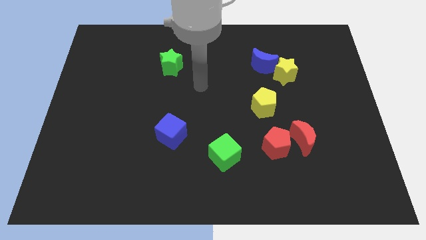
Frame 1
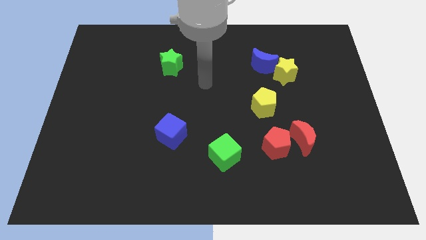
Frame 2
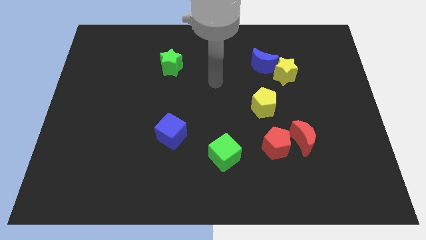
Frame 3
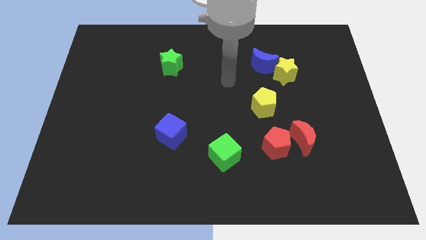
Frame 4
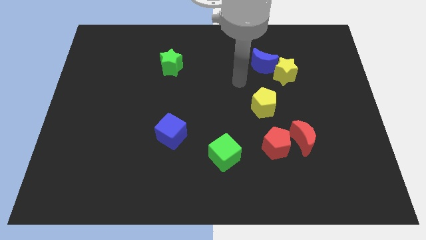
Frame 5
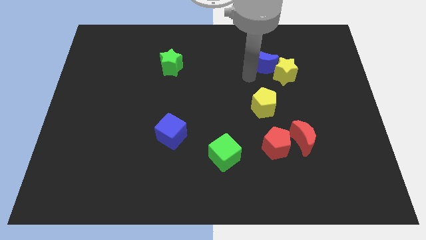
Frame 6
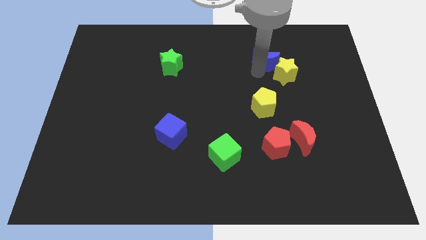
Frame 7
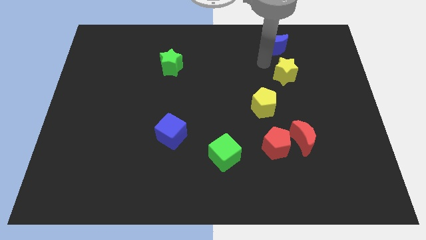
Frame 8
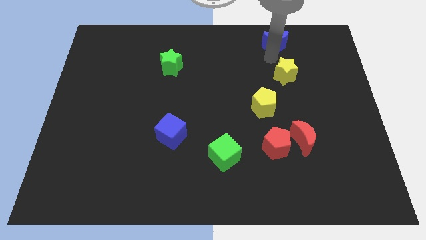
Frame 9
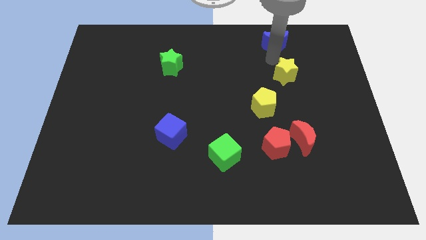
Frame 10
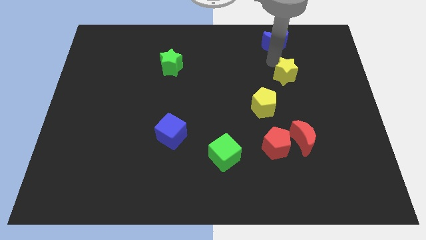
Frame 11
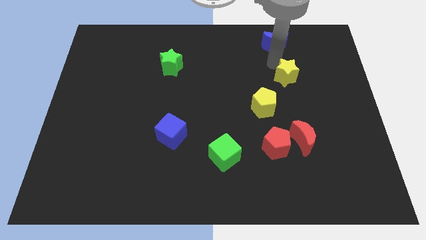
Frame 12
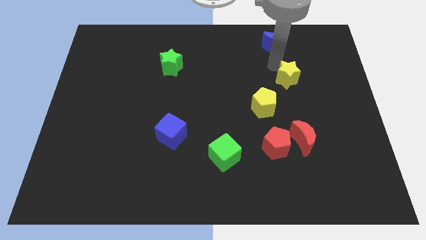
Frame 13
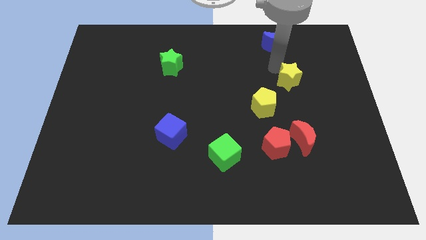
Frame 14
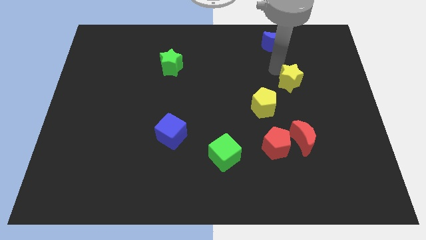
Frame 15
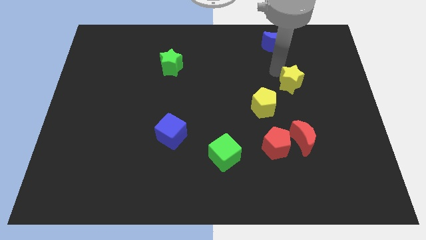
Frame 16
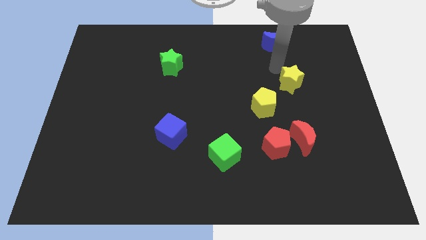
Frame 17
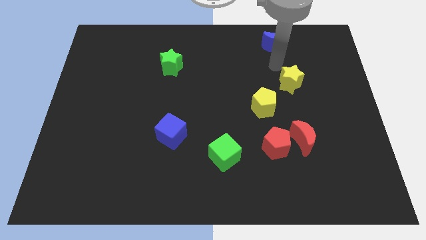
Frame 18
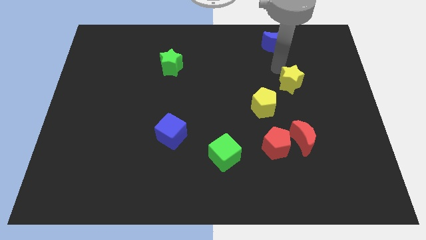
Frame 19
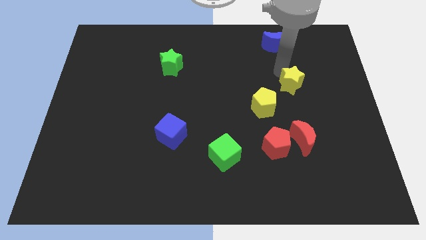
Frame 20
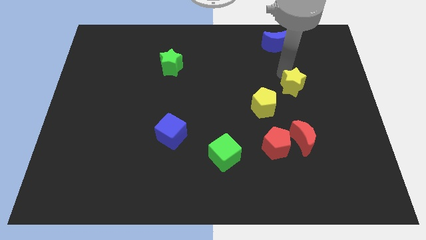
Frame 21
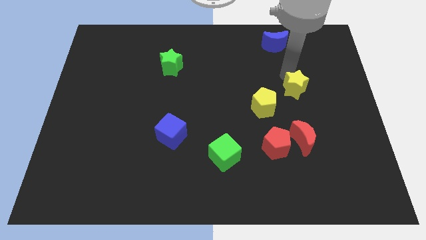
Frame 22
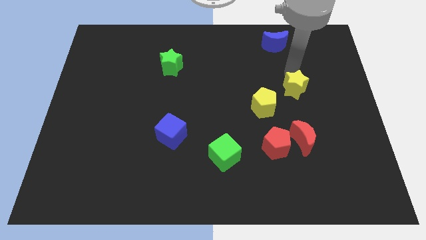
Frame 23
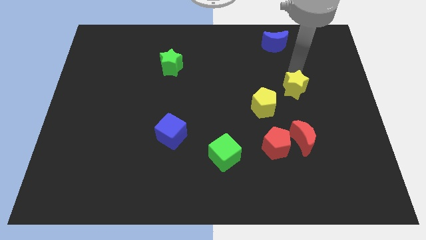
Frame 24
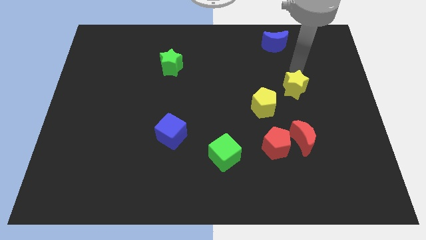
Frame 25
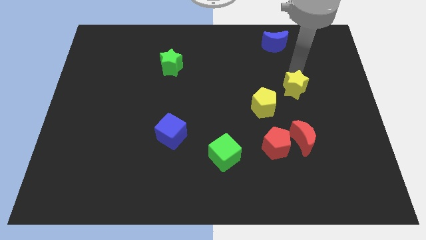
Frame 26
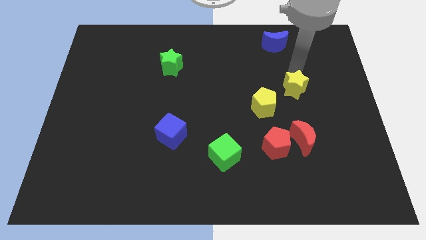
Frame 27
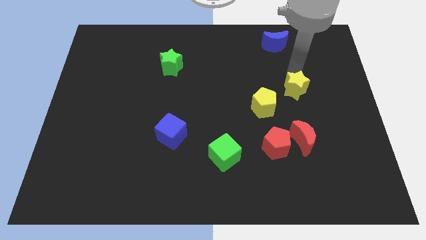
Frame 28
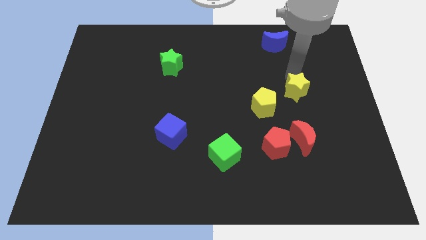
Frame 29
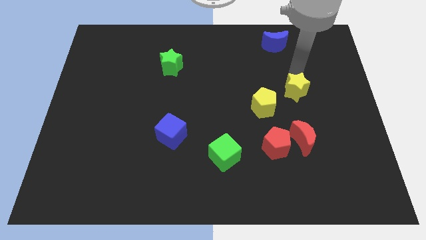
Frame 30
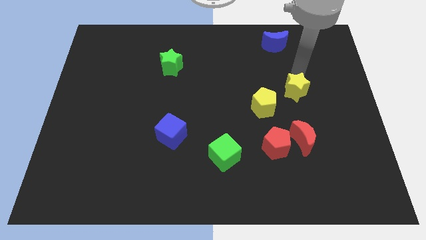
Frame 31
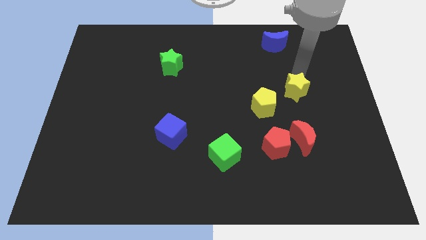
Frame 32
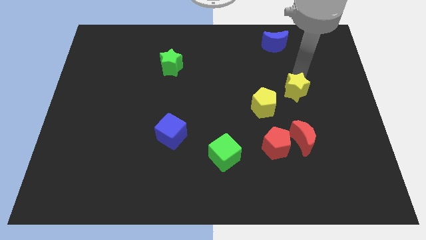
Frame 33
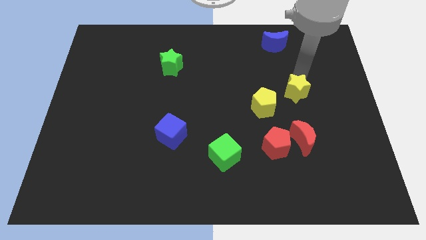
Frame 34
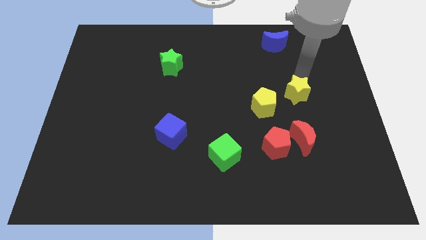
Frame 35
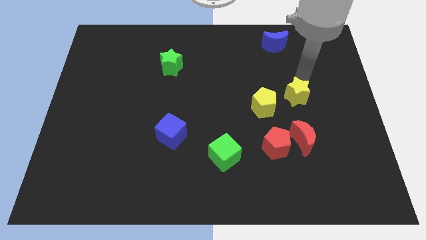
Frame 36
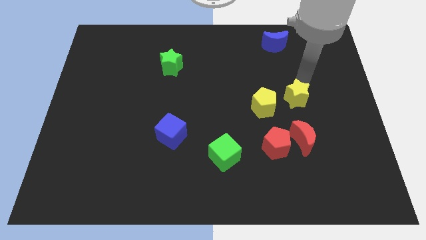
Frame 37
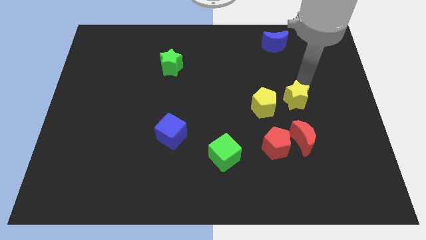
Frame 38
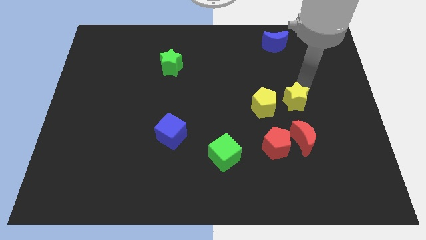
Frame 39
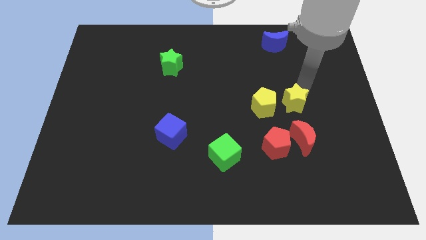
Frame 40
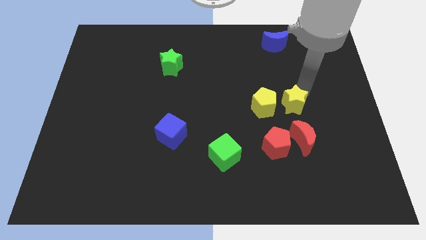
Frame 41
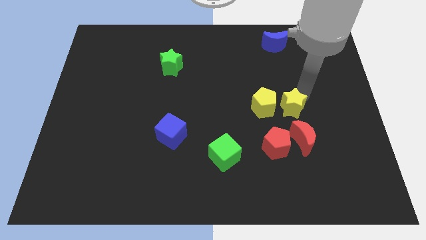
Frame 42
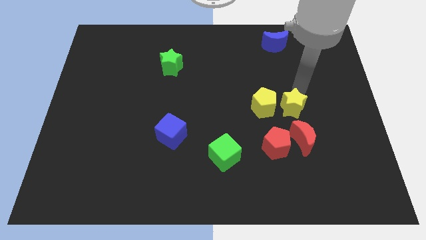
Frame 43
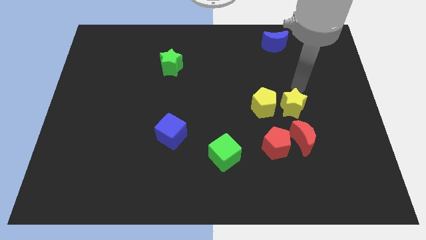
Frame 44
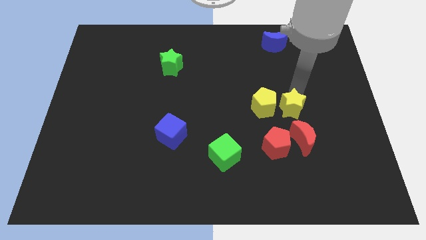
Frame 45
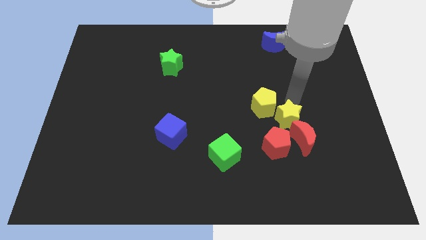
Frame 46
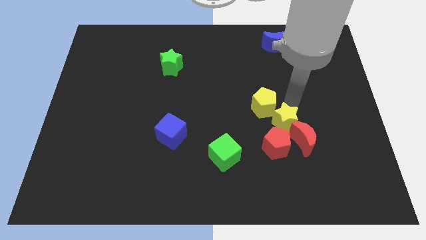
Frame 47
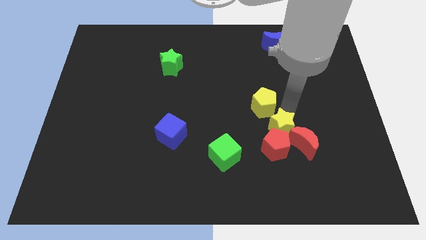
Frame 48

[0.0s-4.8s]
move the yellow star to the red pentagon

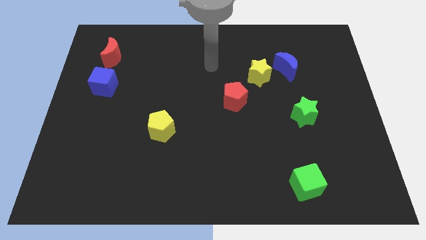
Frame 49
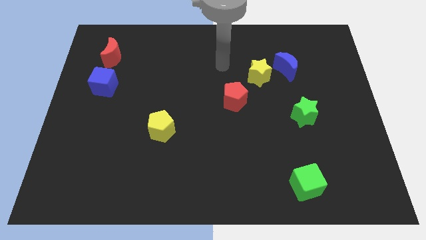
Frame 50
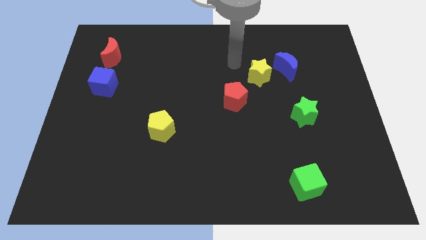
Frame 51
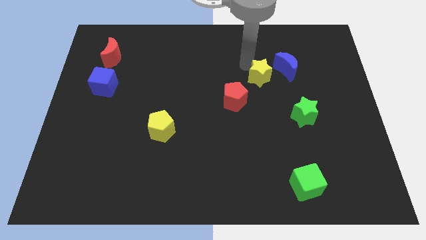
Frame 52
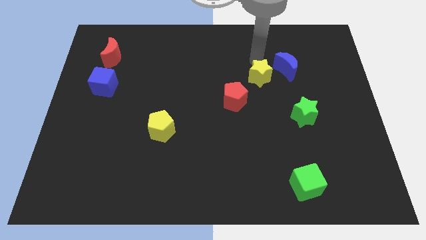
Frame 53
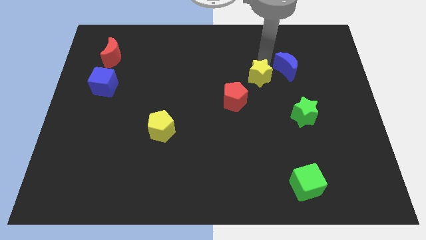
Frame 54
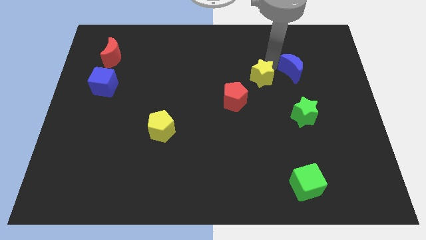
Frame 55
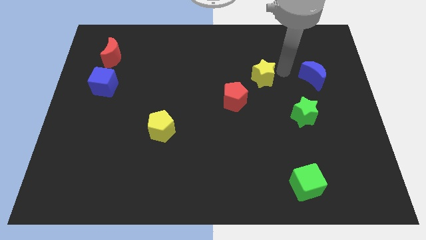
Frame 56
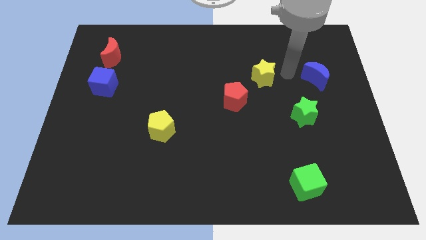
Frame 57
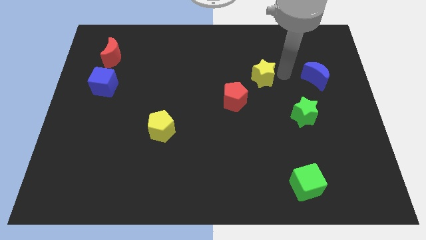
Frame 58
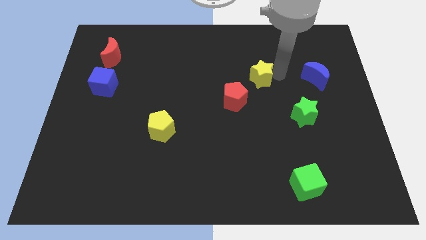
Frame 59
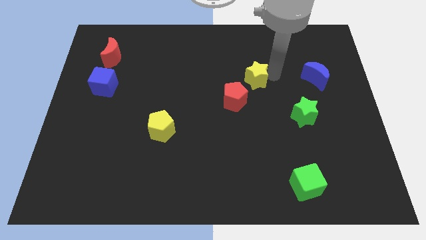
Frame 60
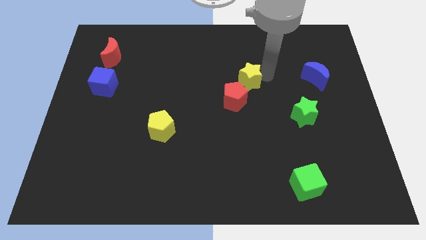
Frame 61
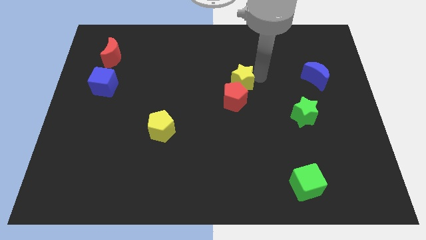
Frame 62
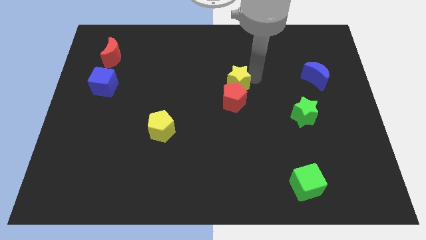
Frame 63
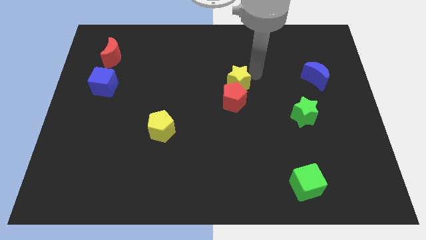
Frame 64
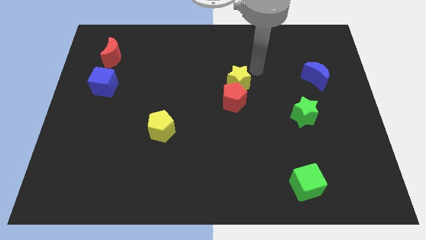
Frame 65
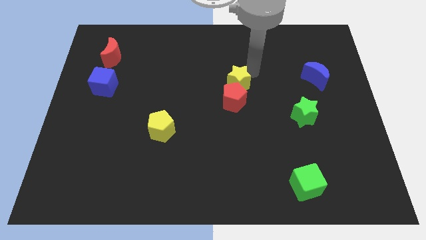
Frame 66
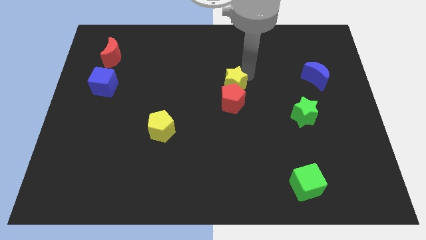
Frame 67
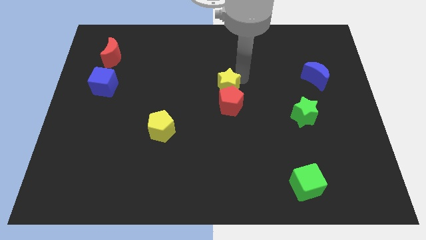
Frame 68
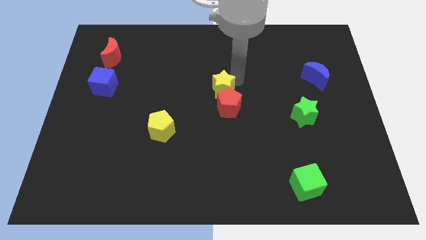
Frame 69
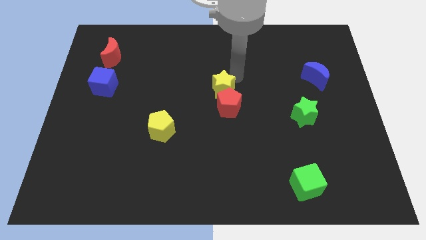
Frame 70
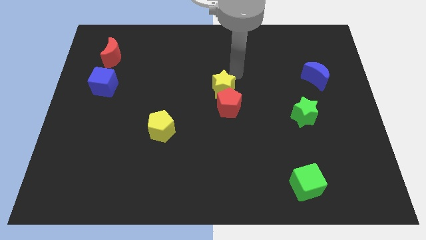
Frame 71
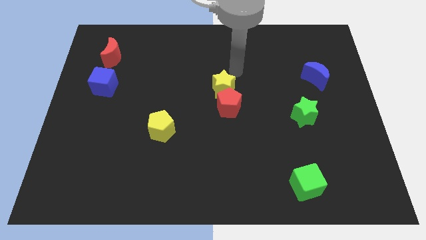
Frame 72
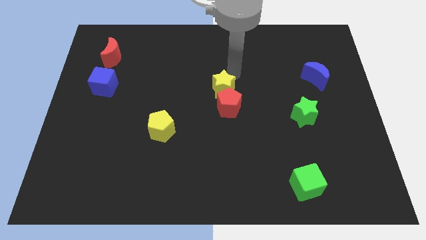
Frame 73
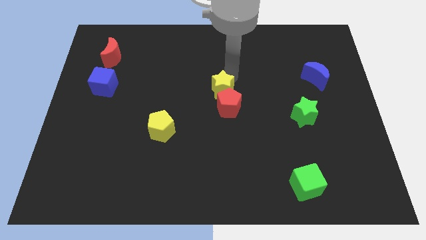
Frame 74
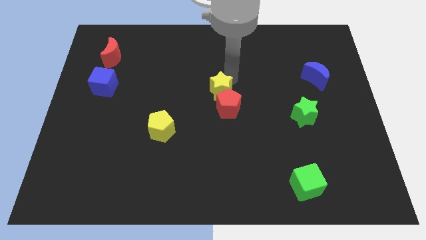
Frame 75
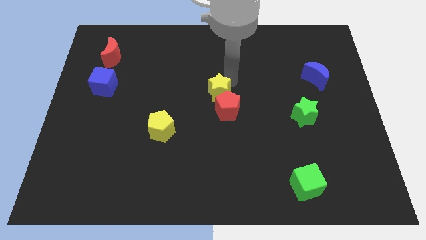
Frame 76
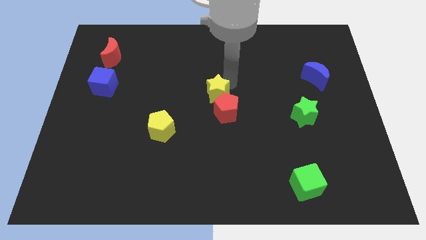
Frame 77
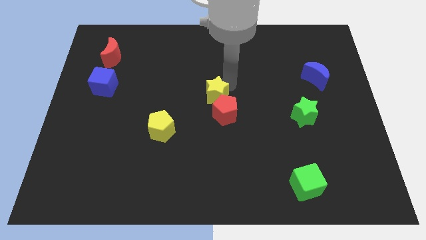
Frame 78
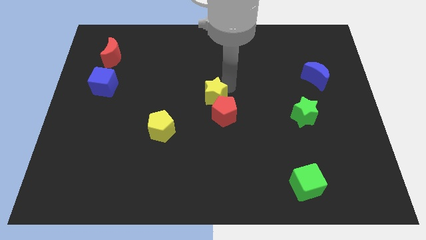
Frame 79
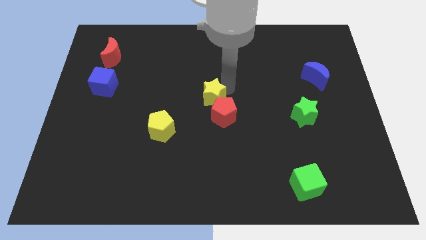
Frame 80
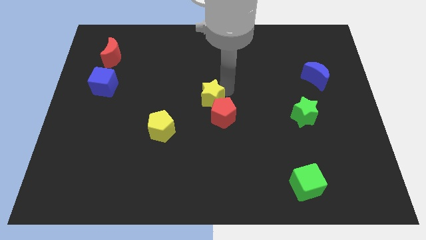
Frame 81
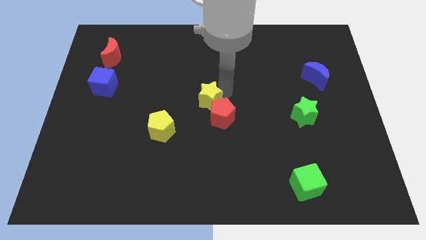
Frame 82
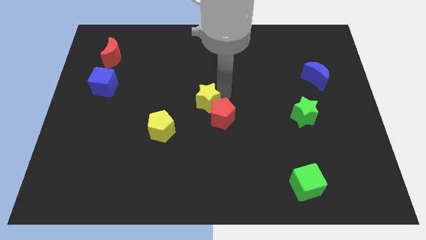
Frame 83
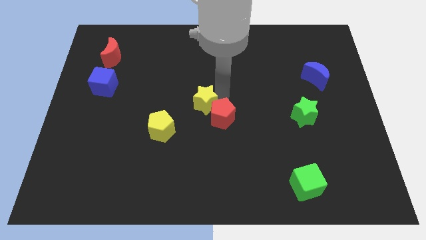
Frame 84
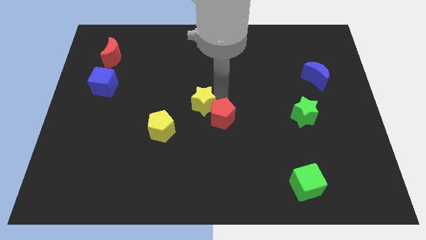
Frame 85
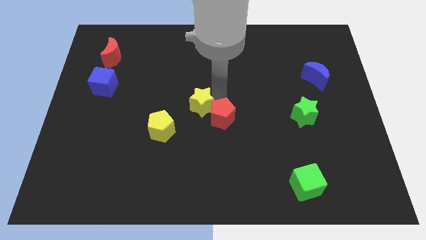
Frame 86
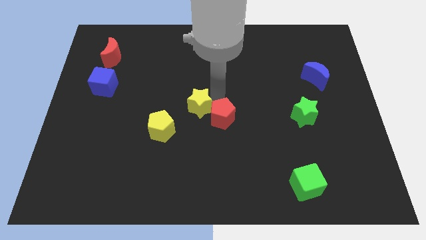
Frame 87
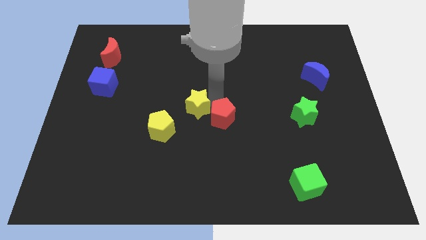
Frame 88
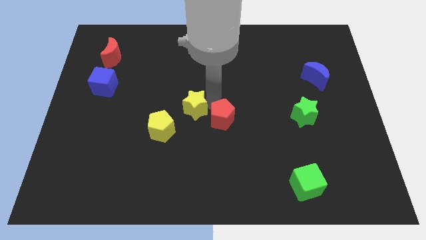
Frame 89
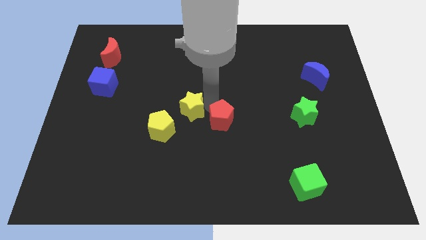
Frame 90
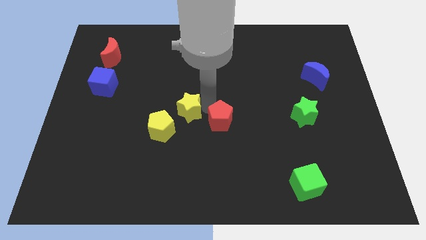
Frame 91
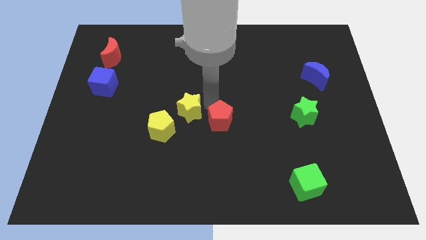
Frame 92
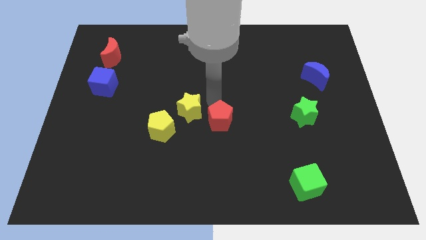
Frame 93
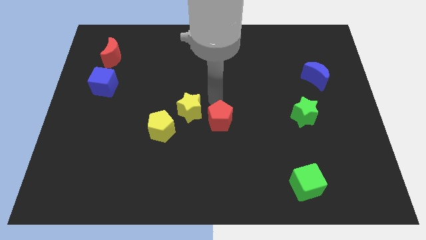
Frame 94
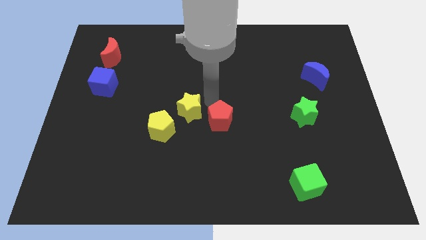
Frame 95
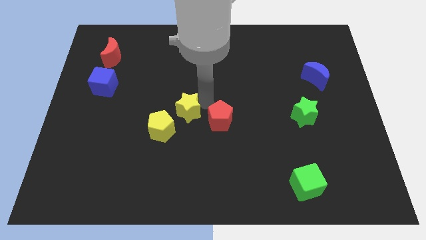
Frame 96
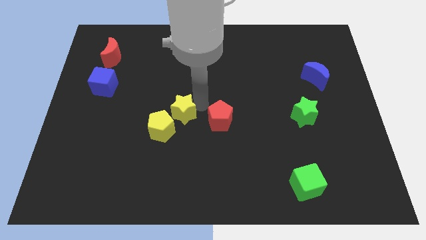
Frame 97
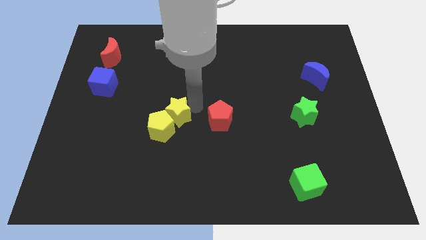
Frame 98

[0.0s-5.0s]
push the yellow star towards the yellow pentagon
